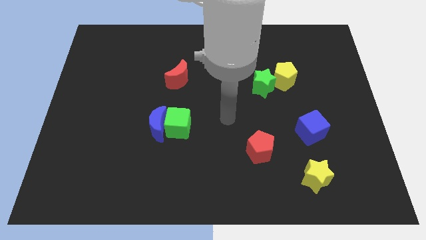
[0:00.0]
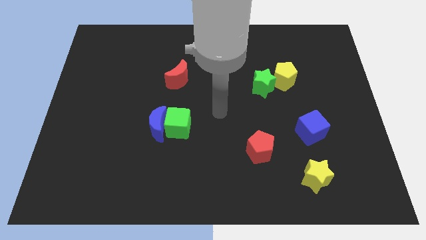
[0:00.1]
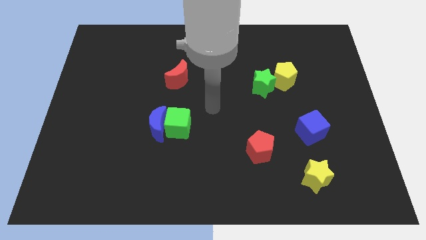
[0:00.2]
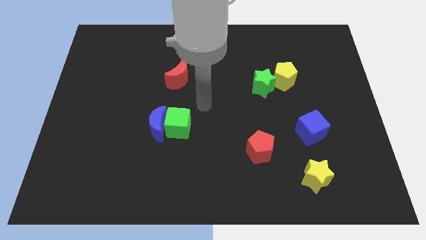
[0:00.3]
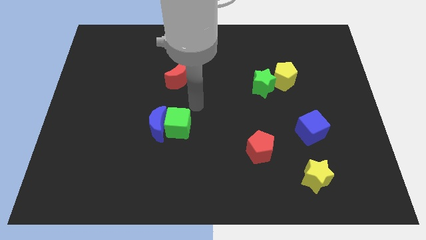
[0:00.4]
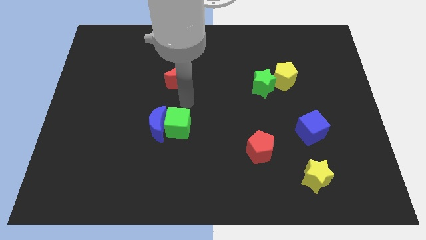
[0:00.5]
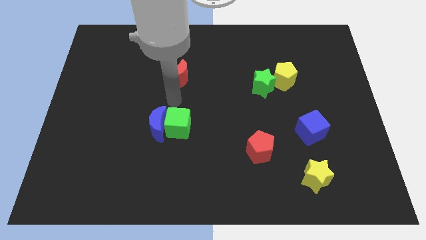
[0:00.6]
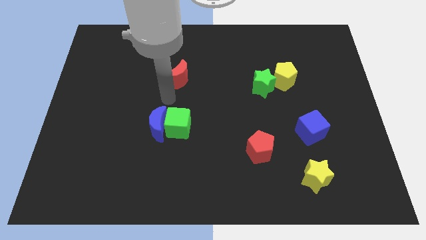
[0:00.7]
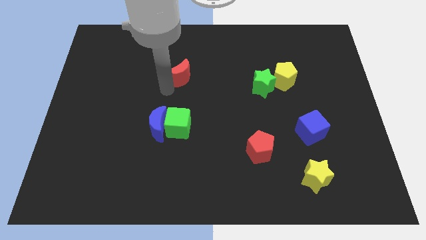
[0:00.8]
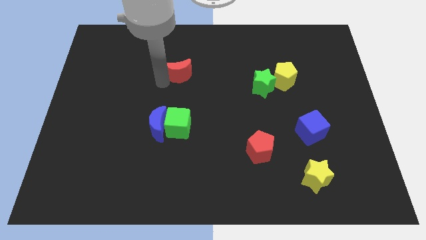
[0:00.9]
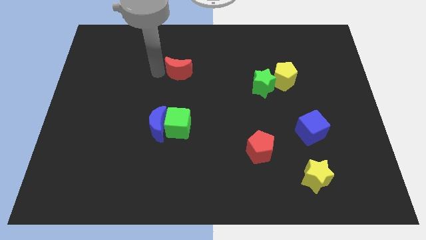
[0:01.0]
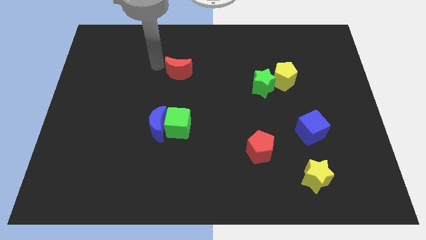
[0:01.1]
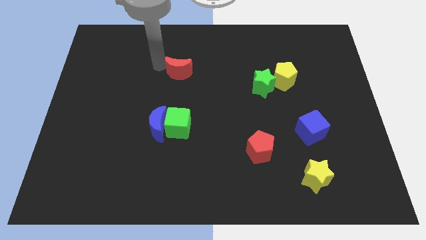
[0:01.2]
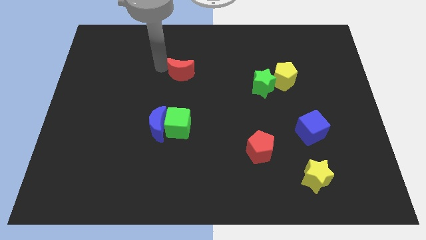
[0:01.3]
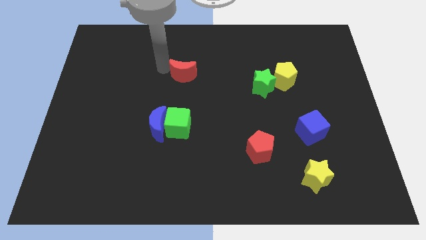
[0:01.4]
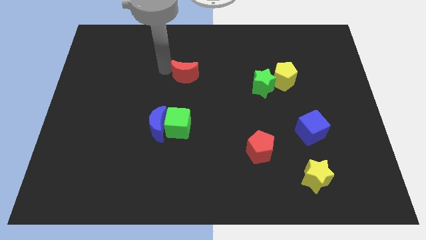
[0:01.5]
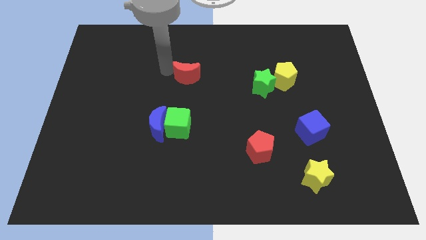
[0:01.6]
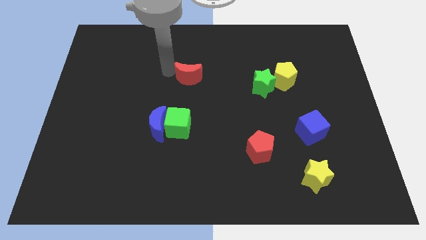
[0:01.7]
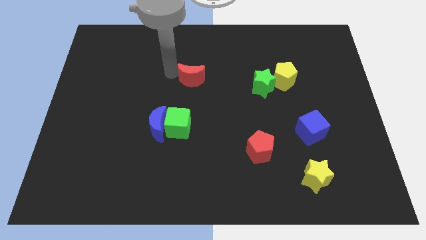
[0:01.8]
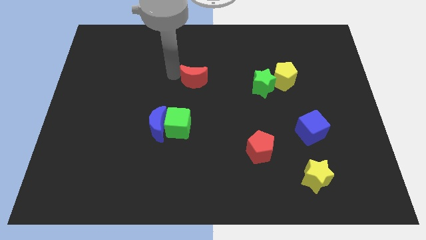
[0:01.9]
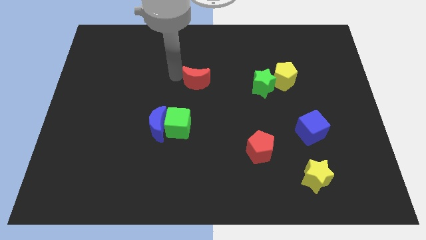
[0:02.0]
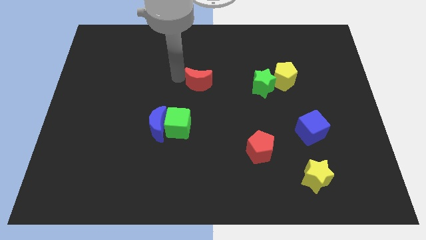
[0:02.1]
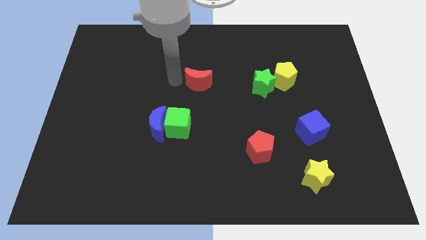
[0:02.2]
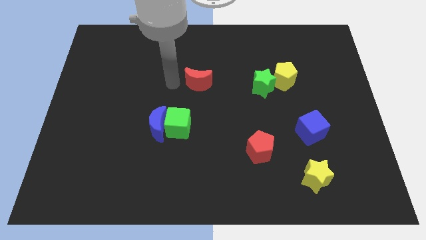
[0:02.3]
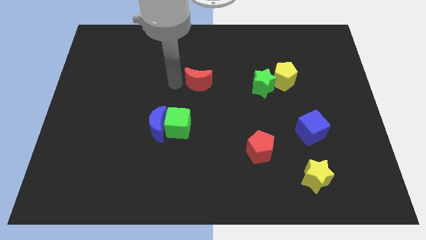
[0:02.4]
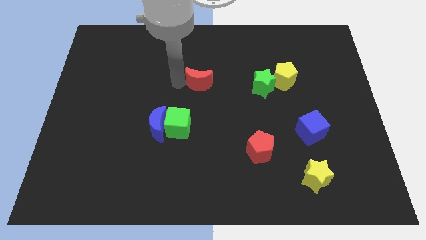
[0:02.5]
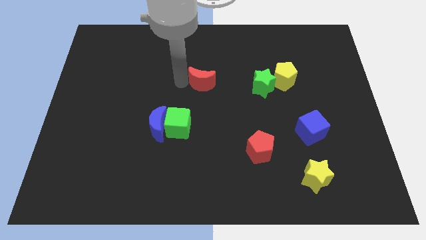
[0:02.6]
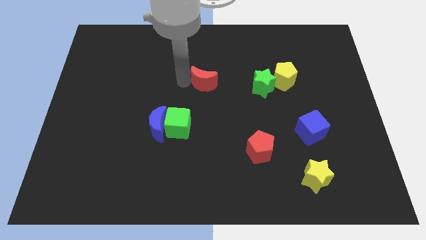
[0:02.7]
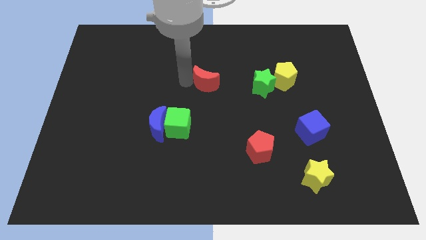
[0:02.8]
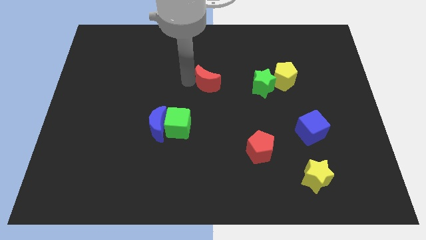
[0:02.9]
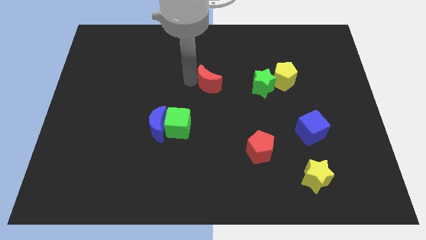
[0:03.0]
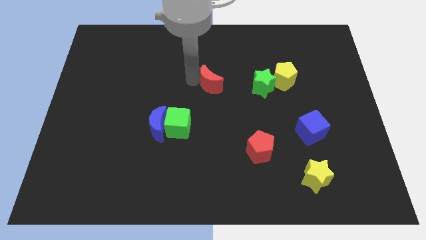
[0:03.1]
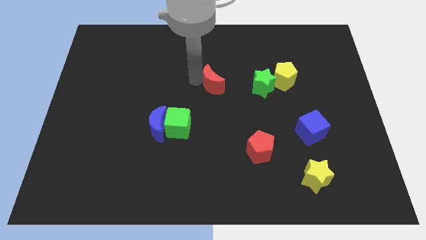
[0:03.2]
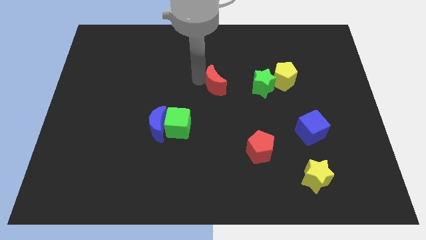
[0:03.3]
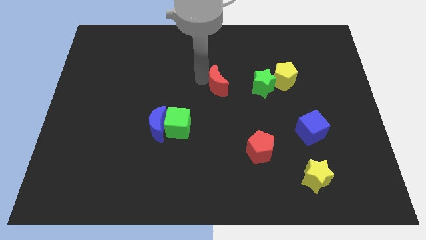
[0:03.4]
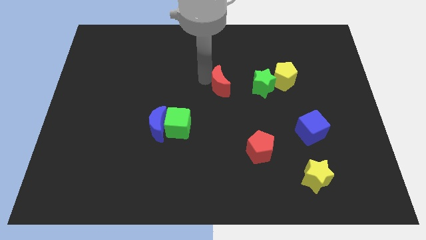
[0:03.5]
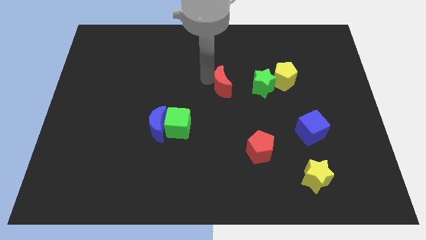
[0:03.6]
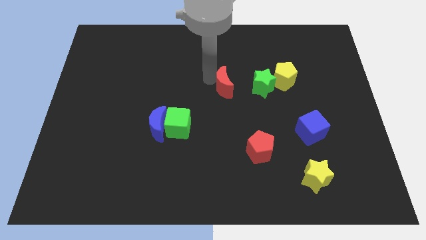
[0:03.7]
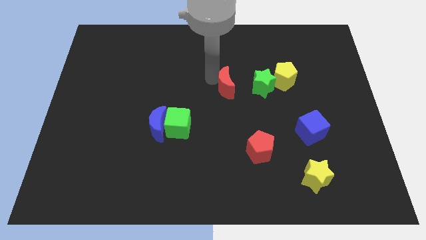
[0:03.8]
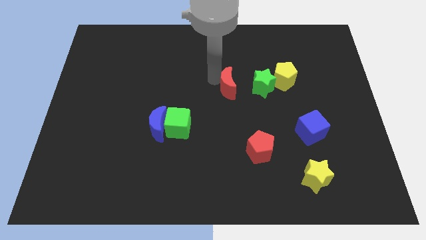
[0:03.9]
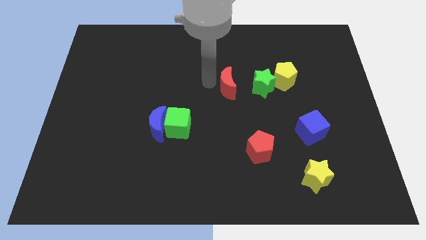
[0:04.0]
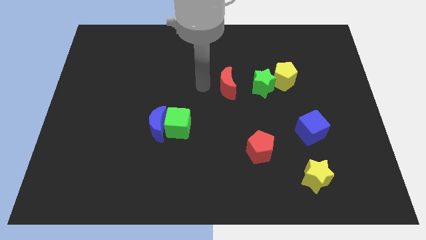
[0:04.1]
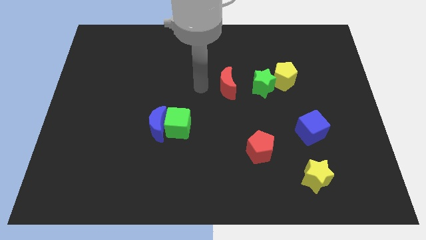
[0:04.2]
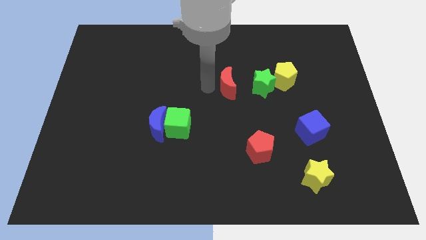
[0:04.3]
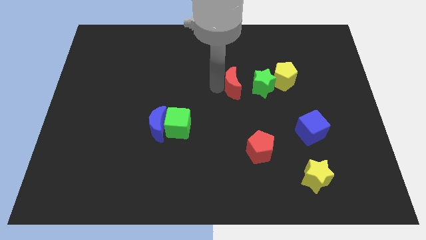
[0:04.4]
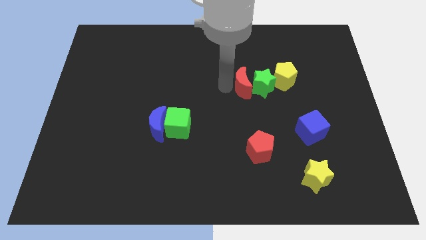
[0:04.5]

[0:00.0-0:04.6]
put the red moon close to the green star

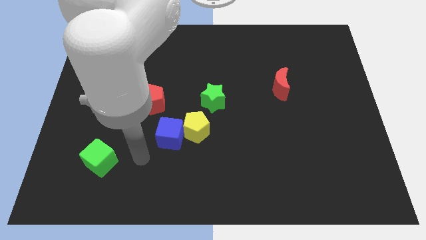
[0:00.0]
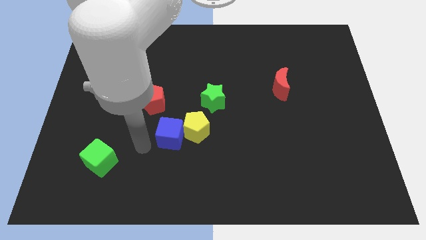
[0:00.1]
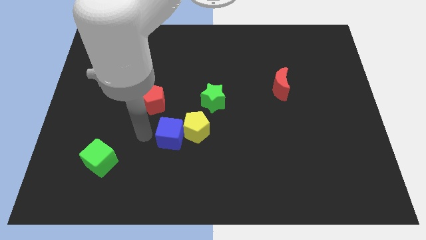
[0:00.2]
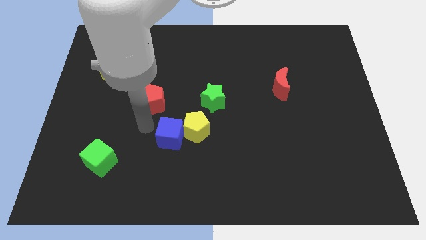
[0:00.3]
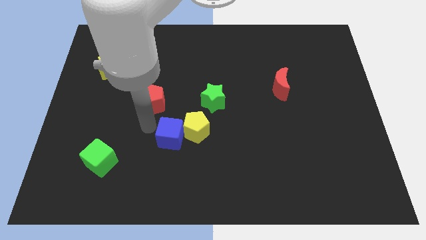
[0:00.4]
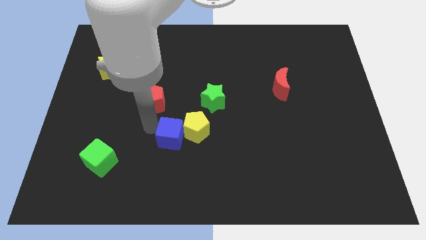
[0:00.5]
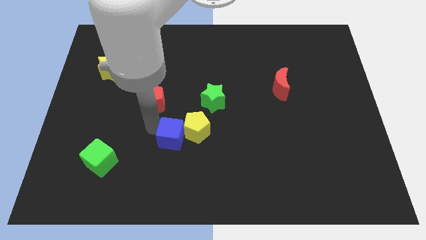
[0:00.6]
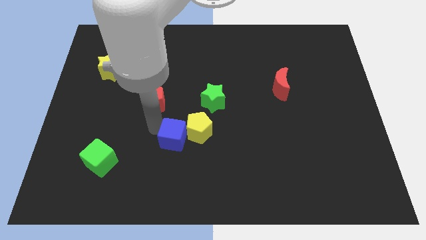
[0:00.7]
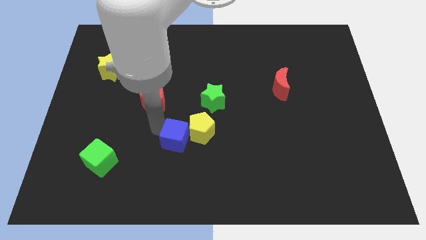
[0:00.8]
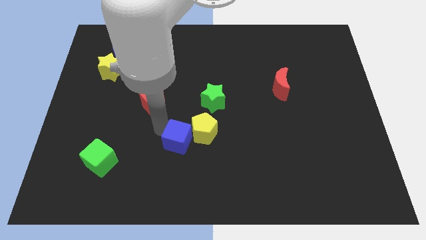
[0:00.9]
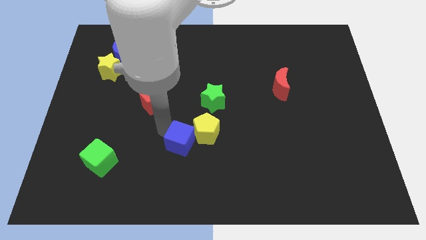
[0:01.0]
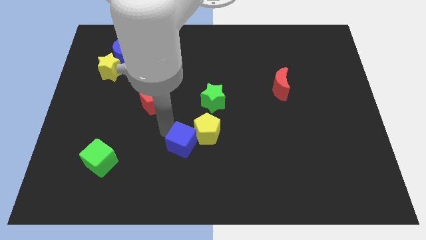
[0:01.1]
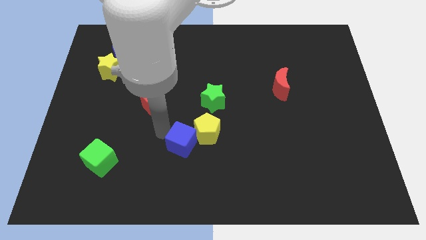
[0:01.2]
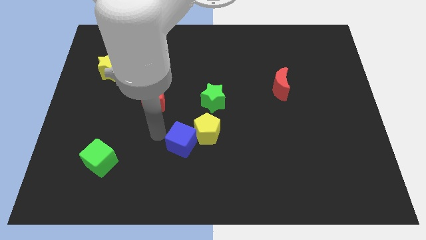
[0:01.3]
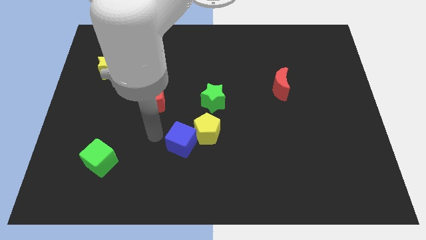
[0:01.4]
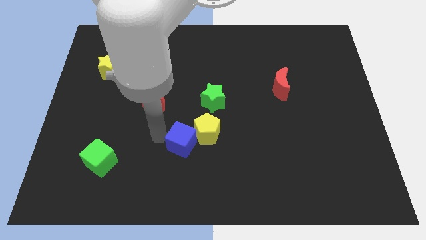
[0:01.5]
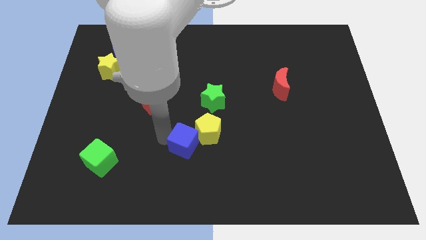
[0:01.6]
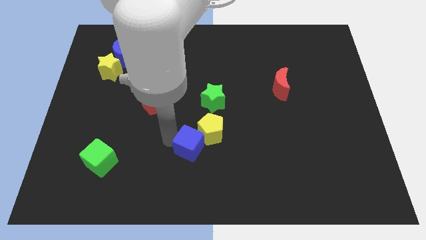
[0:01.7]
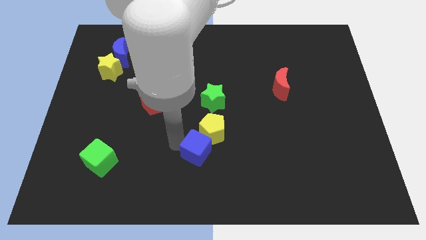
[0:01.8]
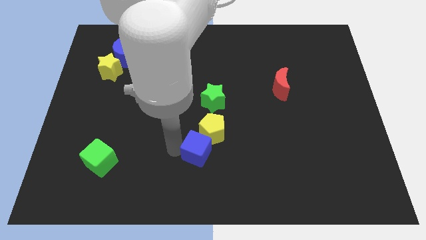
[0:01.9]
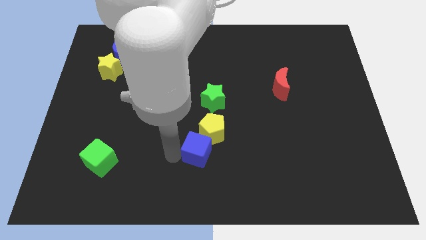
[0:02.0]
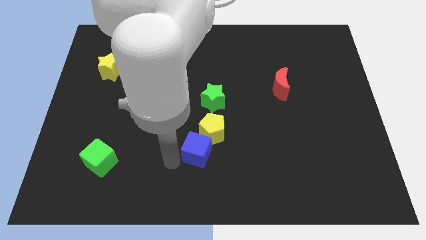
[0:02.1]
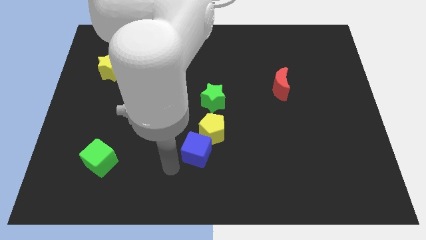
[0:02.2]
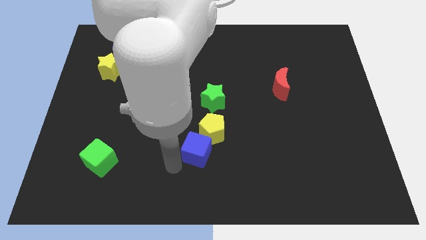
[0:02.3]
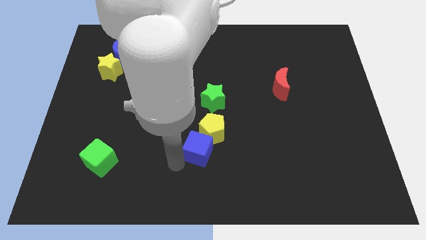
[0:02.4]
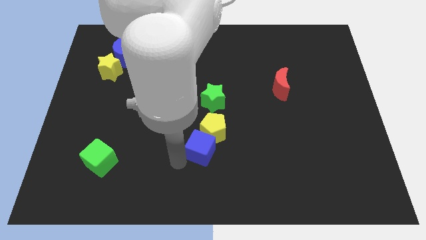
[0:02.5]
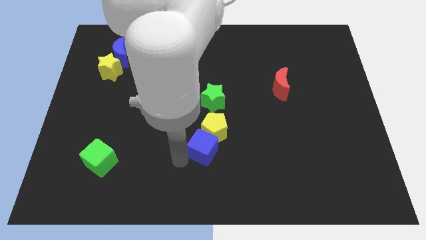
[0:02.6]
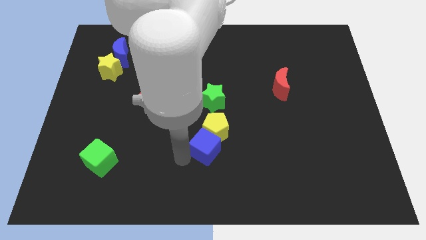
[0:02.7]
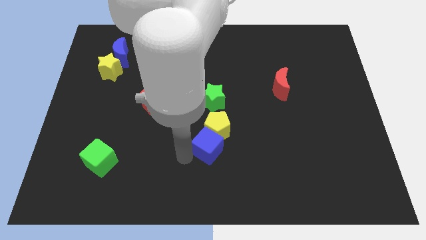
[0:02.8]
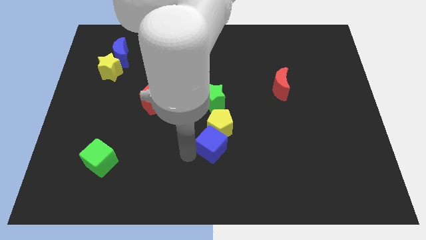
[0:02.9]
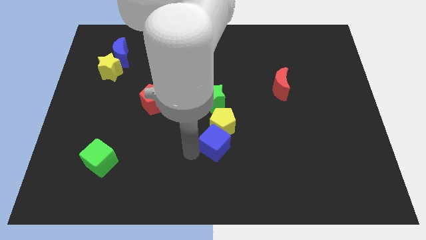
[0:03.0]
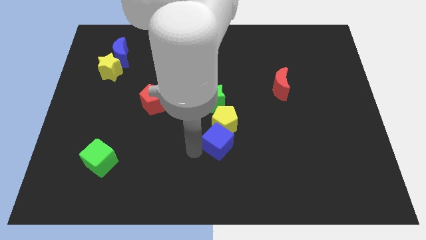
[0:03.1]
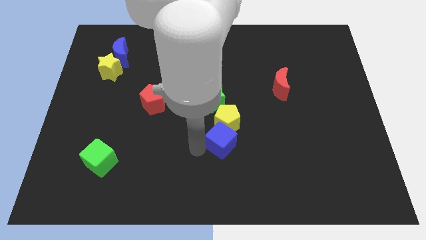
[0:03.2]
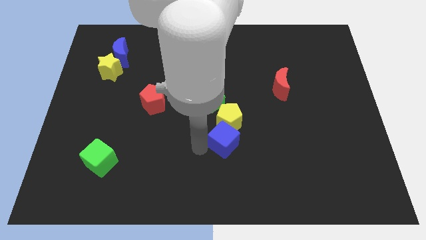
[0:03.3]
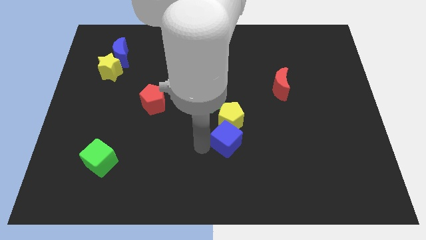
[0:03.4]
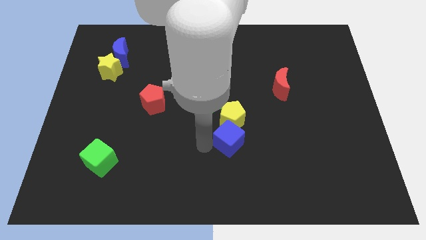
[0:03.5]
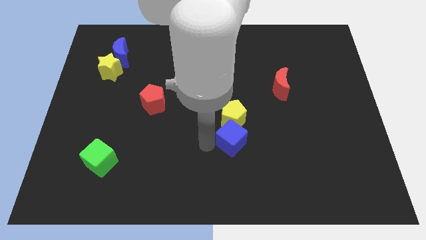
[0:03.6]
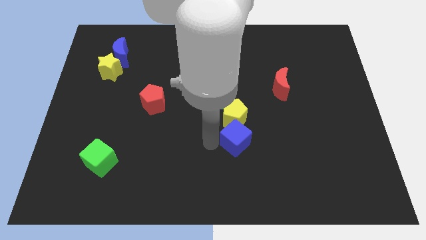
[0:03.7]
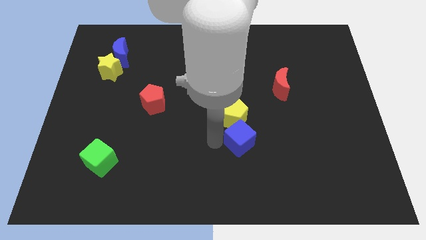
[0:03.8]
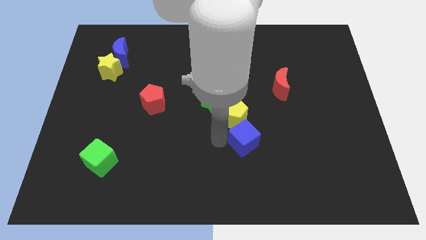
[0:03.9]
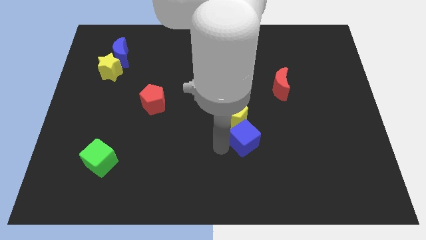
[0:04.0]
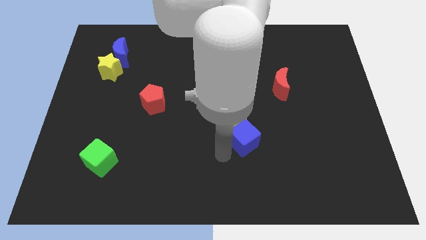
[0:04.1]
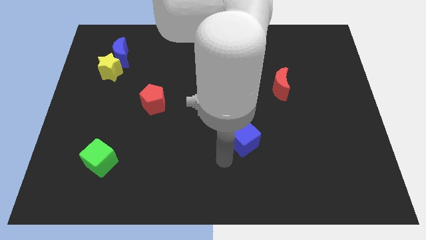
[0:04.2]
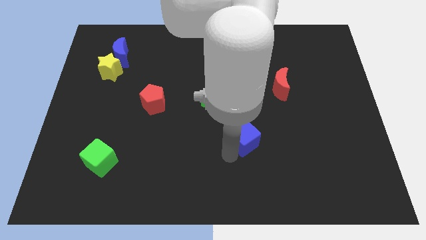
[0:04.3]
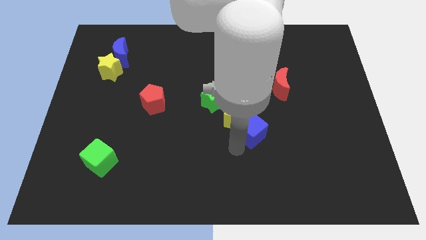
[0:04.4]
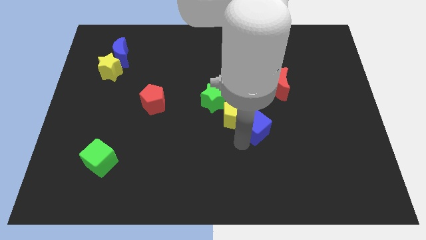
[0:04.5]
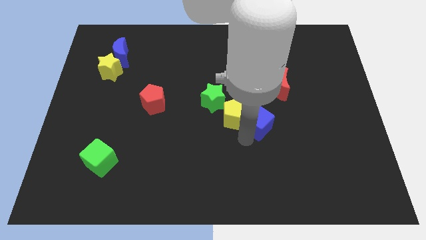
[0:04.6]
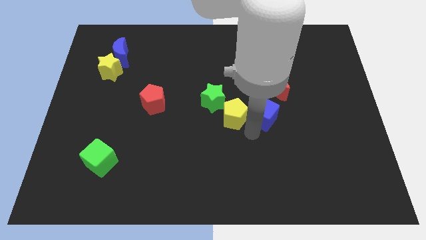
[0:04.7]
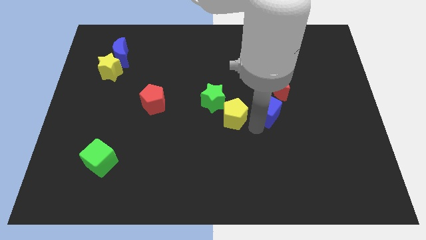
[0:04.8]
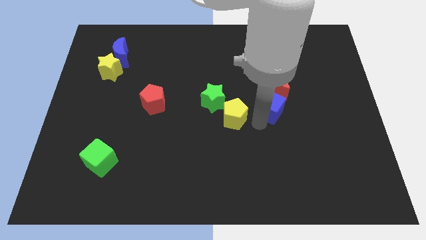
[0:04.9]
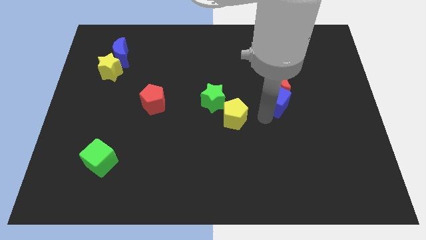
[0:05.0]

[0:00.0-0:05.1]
put the blue cube to the red moon
